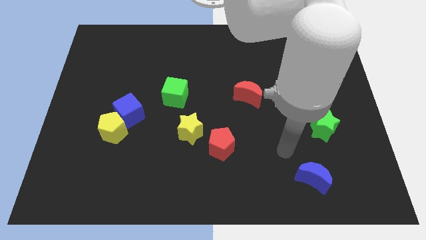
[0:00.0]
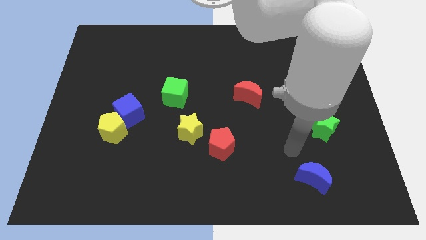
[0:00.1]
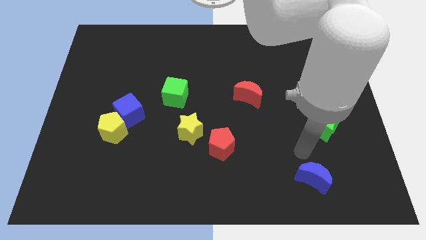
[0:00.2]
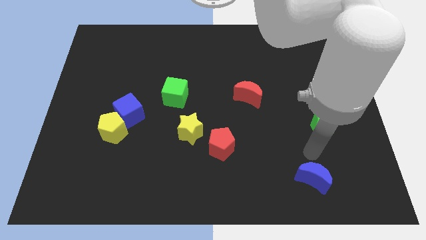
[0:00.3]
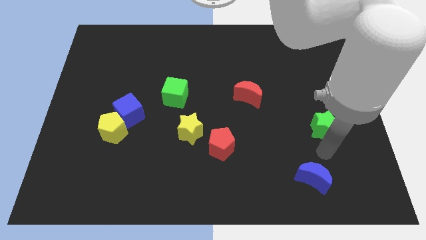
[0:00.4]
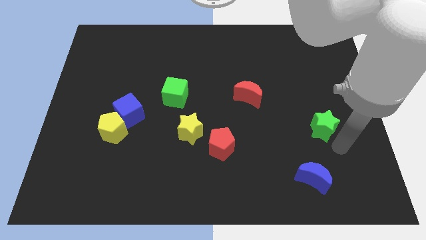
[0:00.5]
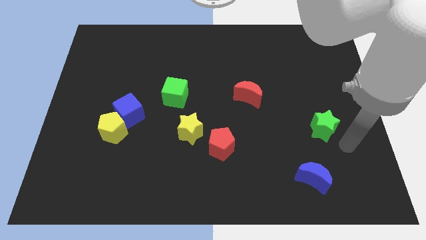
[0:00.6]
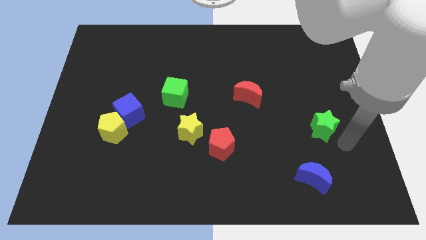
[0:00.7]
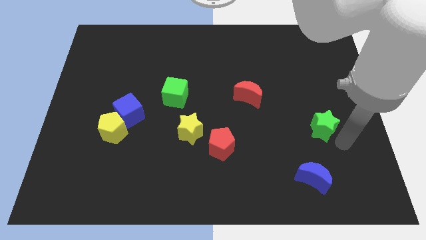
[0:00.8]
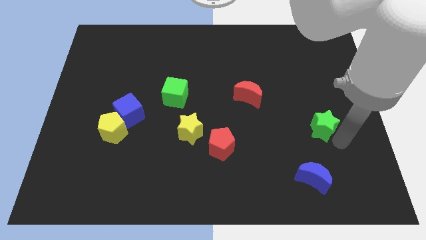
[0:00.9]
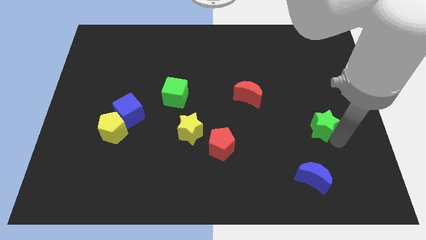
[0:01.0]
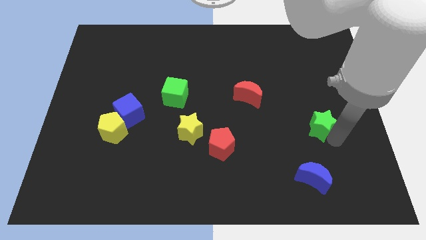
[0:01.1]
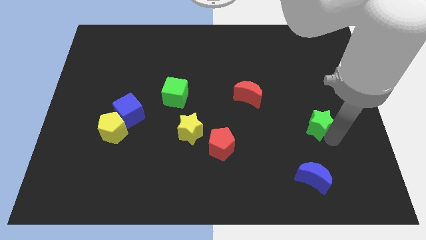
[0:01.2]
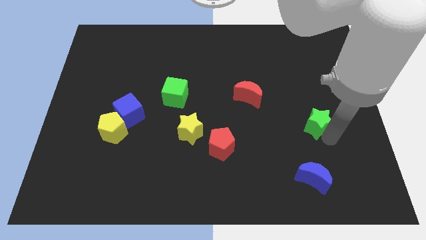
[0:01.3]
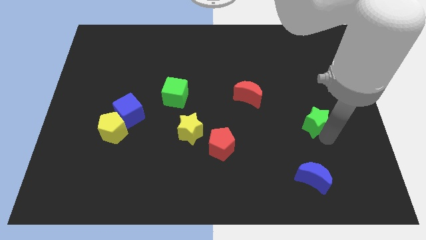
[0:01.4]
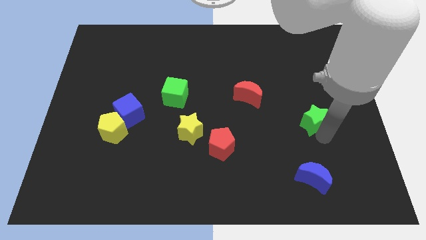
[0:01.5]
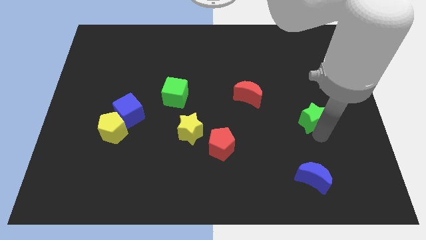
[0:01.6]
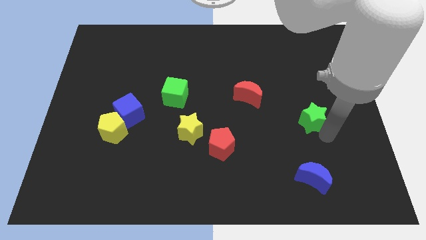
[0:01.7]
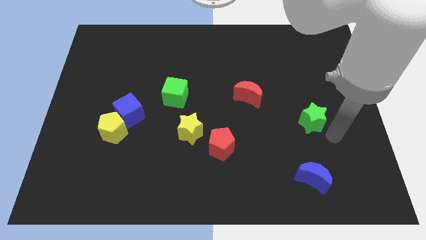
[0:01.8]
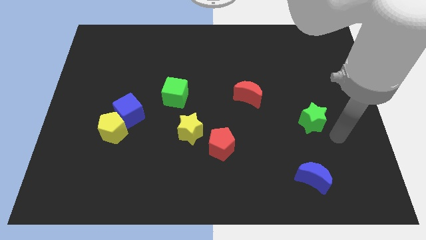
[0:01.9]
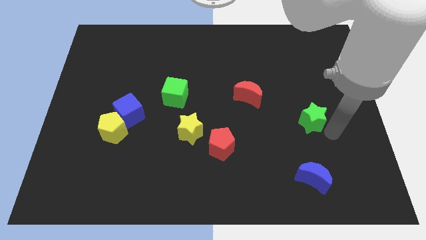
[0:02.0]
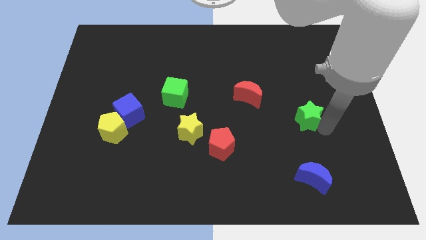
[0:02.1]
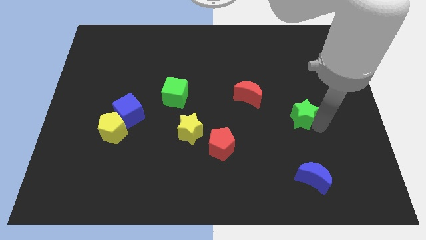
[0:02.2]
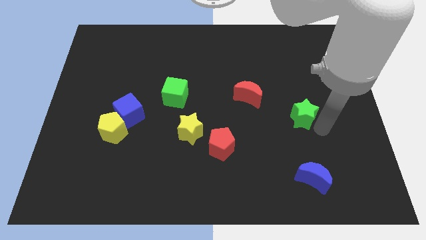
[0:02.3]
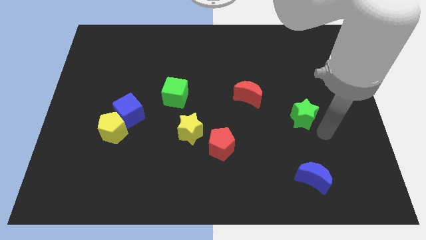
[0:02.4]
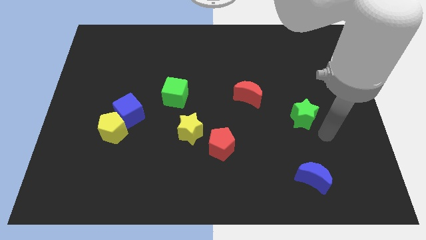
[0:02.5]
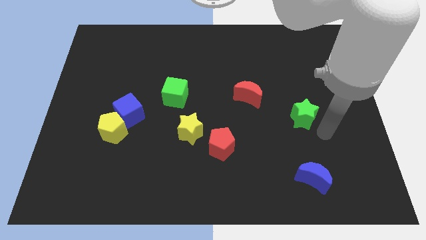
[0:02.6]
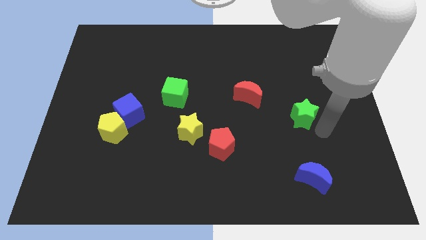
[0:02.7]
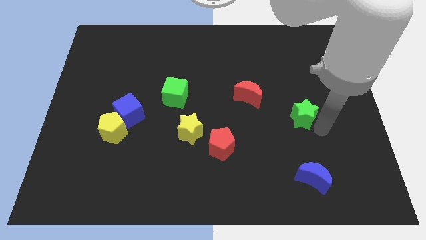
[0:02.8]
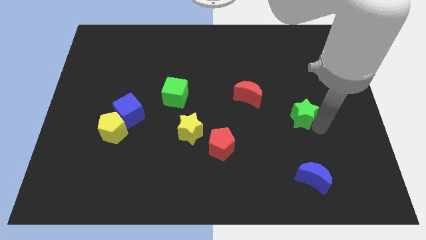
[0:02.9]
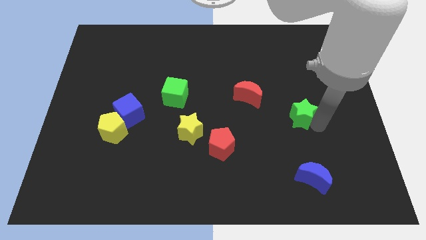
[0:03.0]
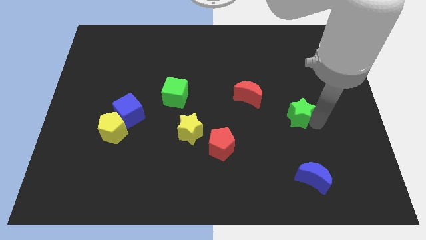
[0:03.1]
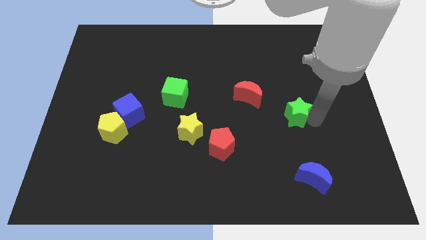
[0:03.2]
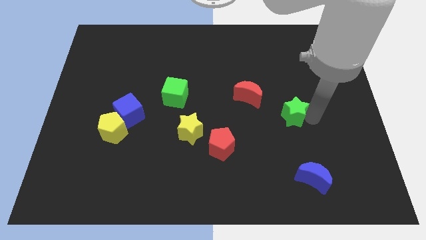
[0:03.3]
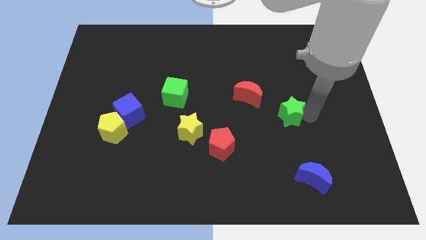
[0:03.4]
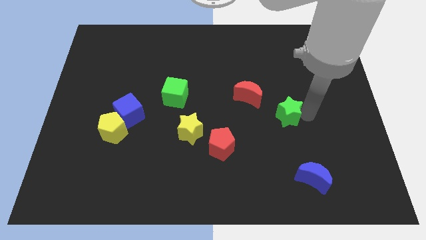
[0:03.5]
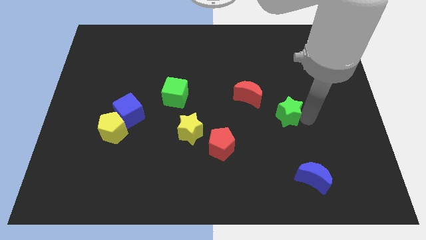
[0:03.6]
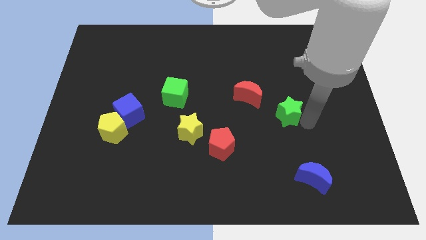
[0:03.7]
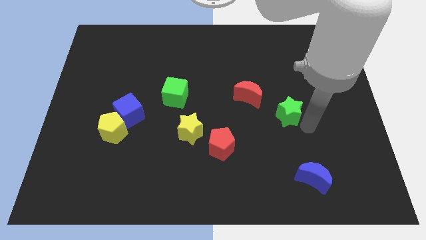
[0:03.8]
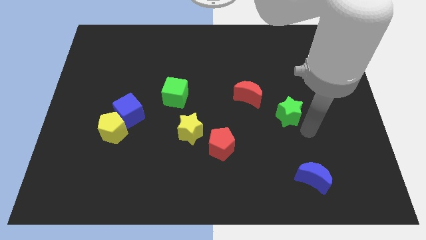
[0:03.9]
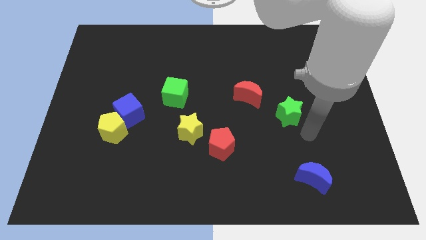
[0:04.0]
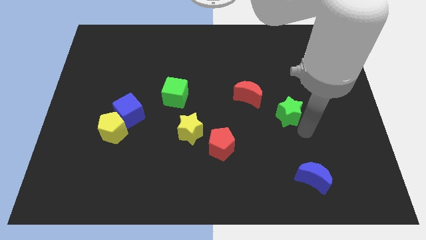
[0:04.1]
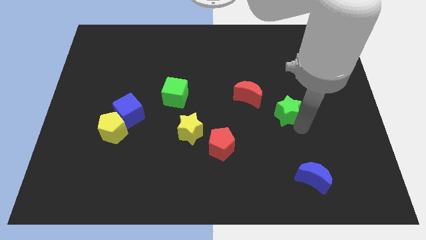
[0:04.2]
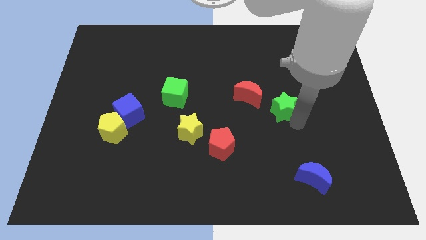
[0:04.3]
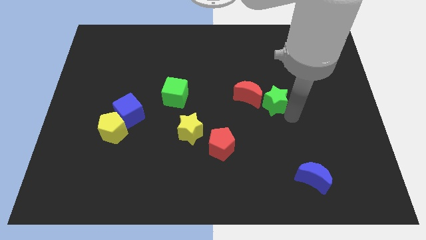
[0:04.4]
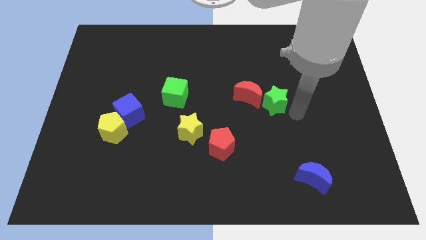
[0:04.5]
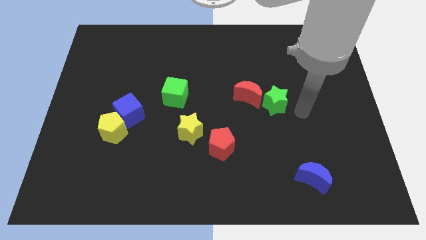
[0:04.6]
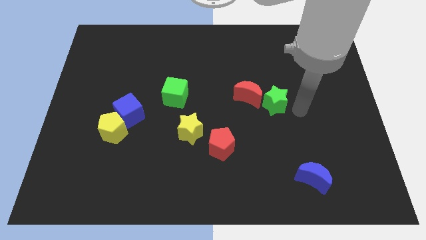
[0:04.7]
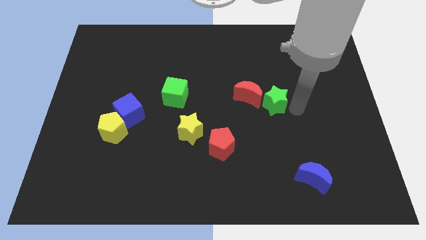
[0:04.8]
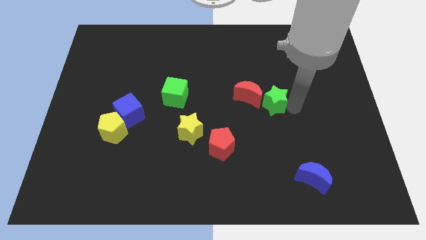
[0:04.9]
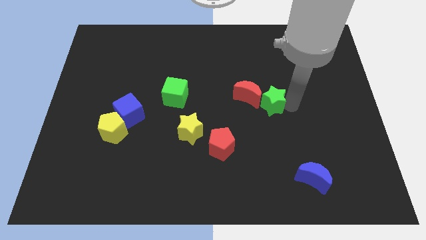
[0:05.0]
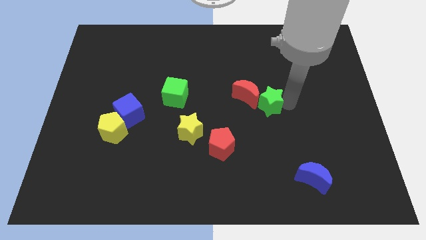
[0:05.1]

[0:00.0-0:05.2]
push the green star close to the red moon

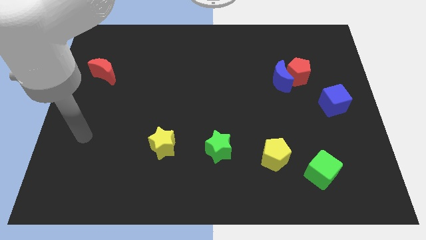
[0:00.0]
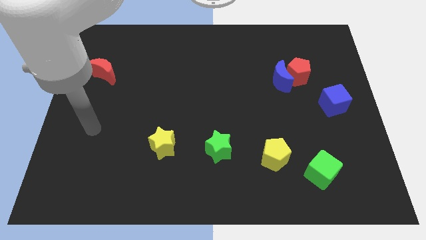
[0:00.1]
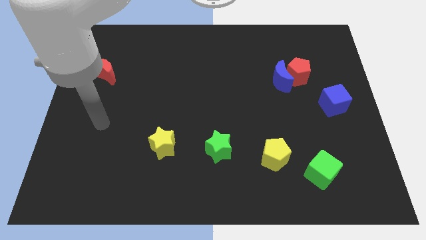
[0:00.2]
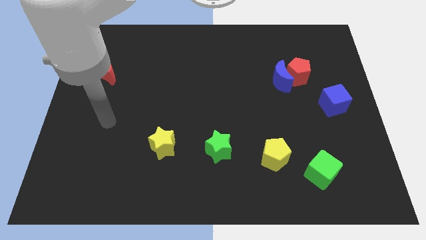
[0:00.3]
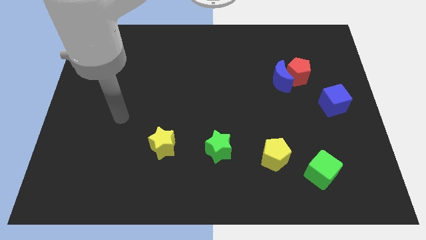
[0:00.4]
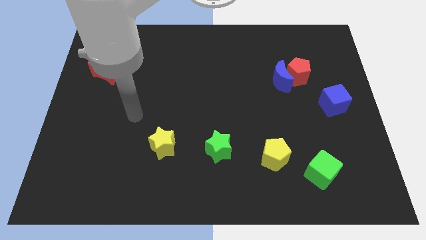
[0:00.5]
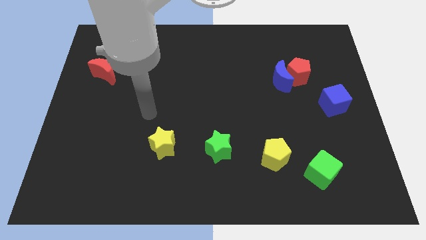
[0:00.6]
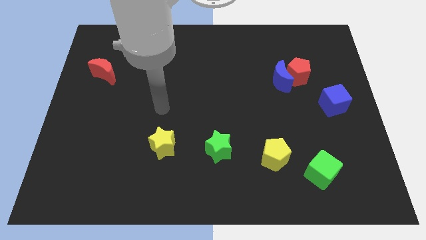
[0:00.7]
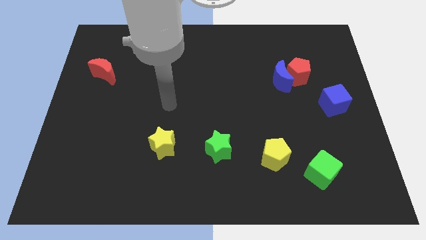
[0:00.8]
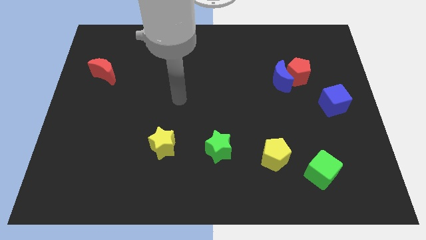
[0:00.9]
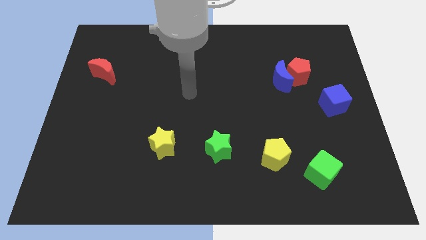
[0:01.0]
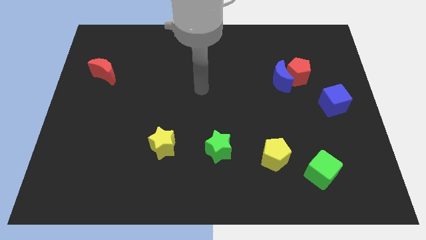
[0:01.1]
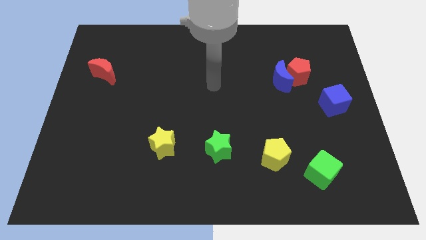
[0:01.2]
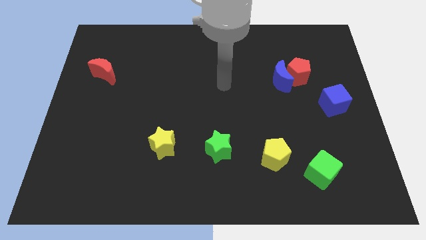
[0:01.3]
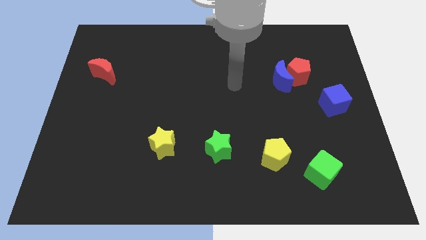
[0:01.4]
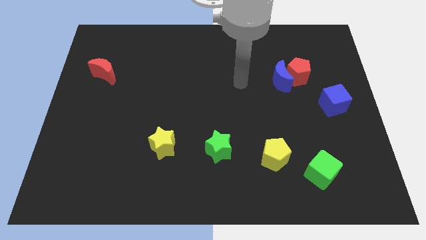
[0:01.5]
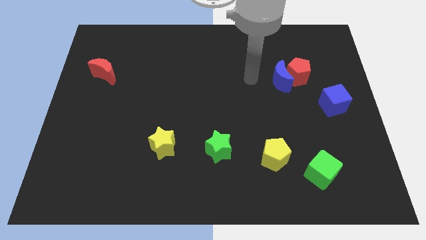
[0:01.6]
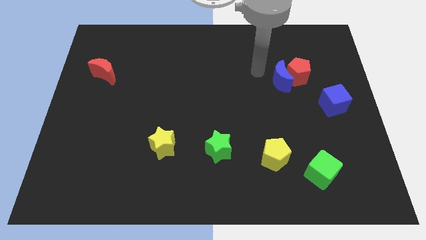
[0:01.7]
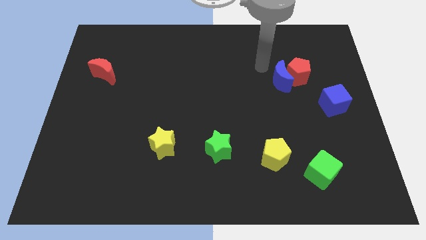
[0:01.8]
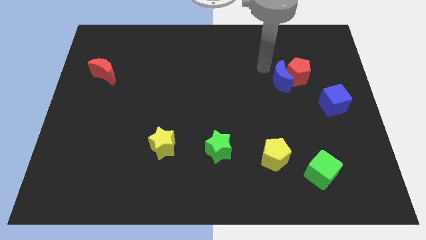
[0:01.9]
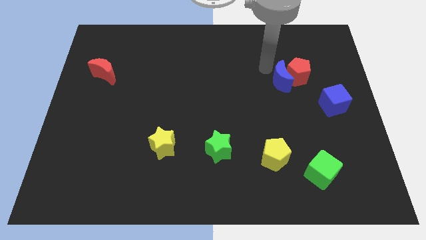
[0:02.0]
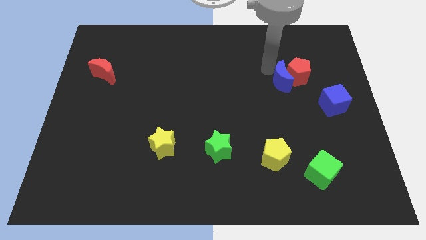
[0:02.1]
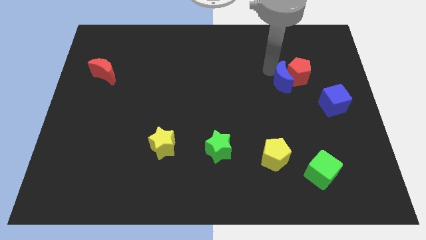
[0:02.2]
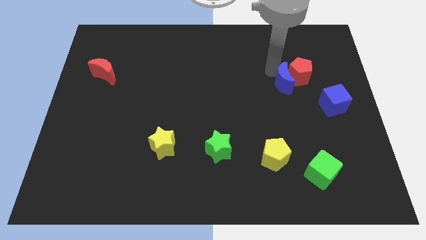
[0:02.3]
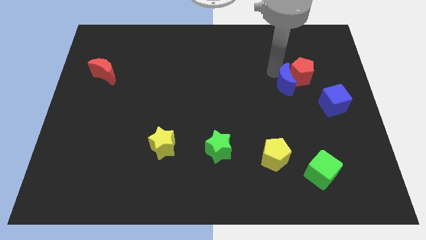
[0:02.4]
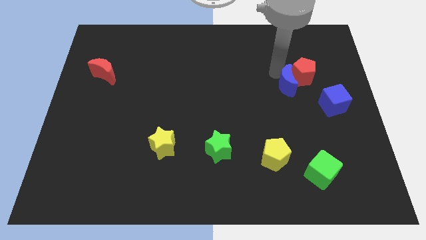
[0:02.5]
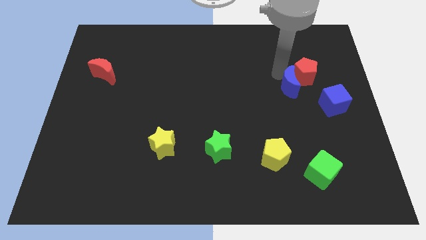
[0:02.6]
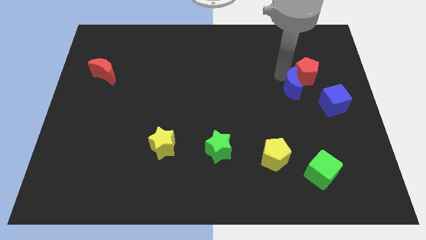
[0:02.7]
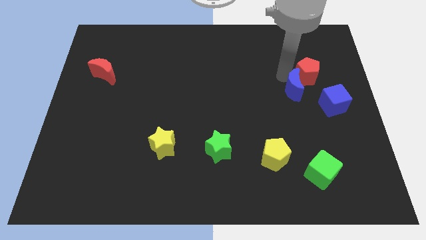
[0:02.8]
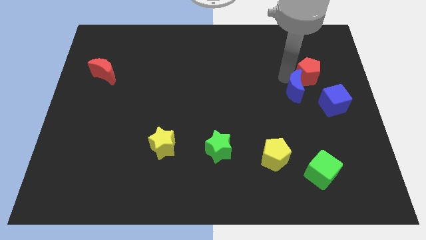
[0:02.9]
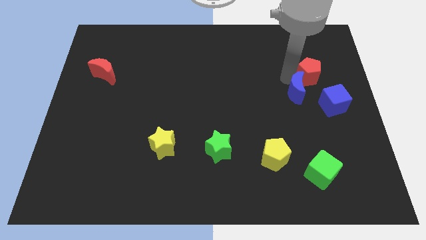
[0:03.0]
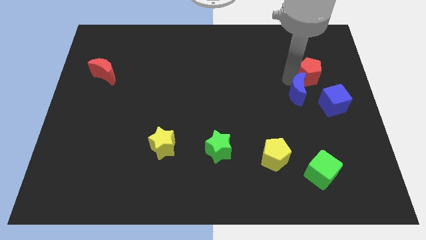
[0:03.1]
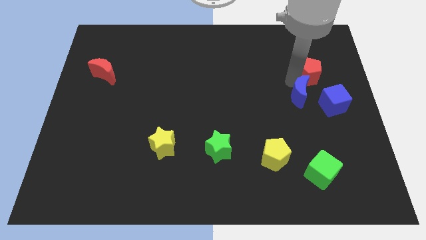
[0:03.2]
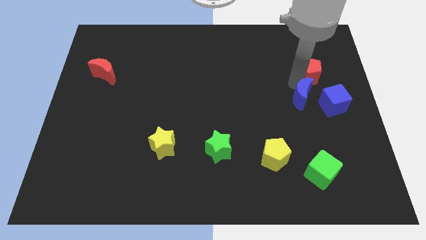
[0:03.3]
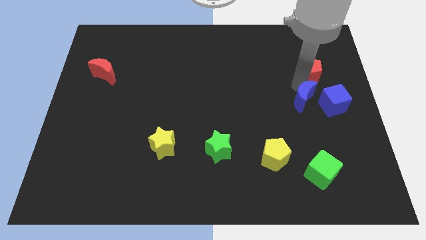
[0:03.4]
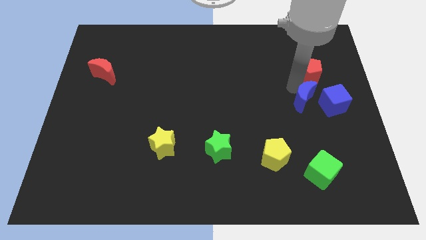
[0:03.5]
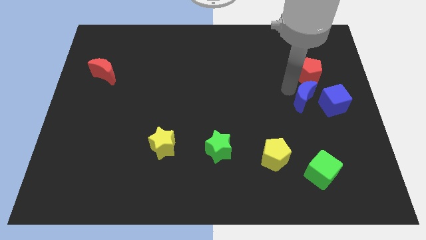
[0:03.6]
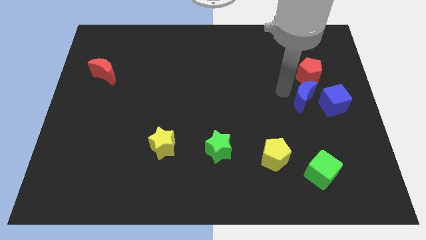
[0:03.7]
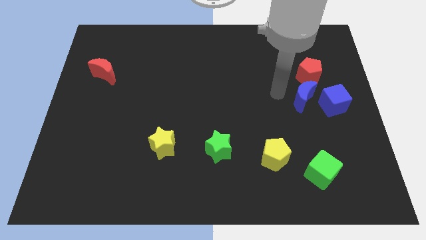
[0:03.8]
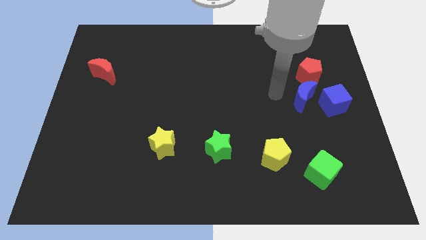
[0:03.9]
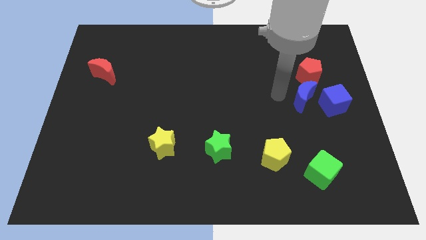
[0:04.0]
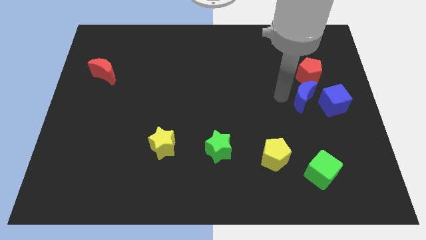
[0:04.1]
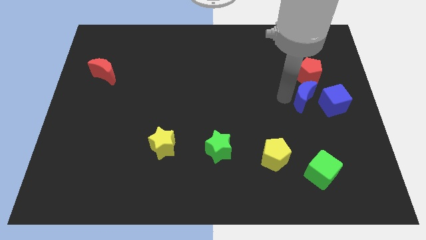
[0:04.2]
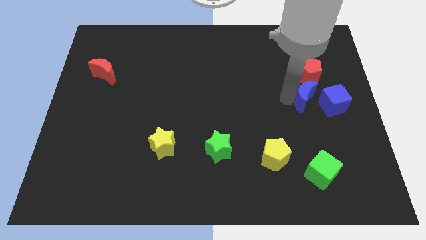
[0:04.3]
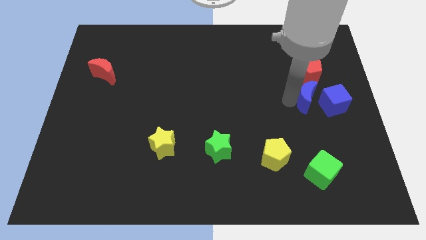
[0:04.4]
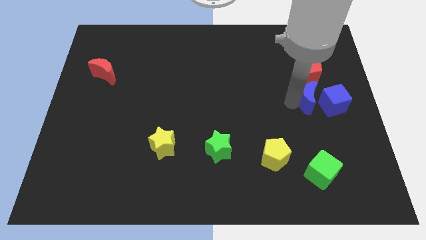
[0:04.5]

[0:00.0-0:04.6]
push the blue moon to the blue cube
